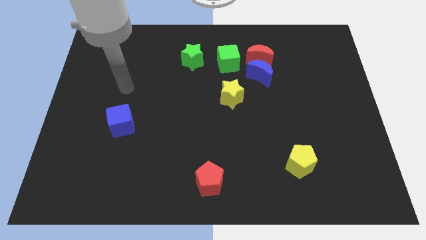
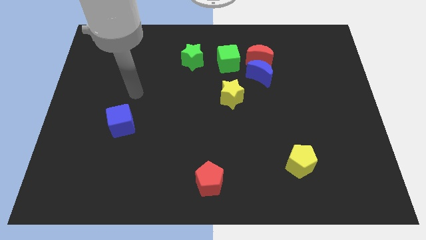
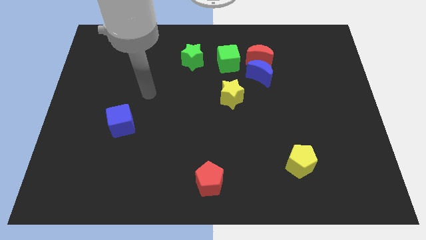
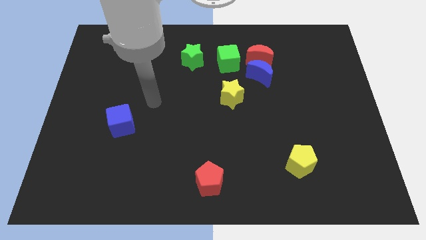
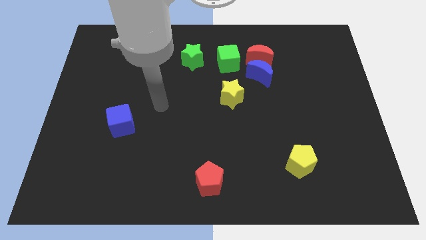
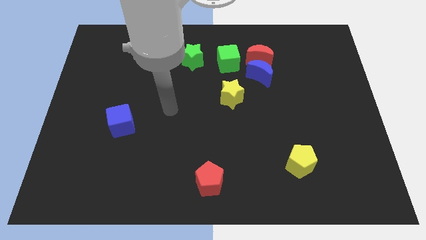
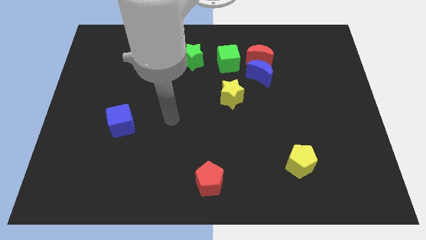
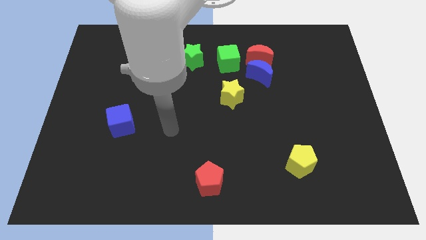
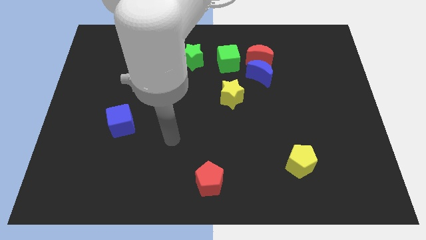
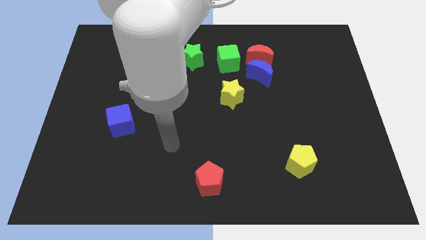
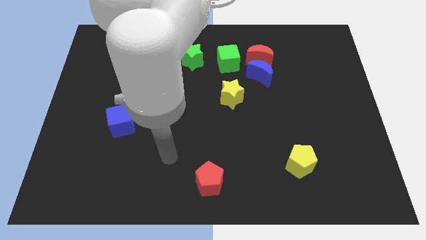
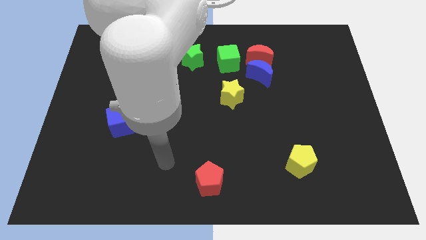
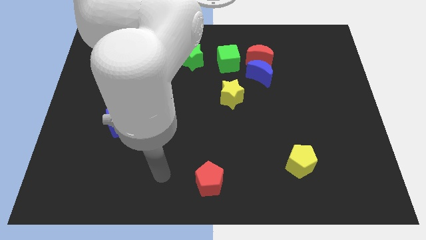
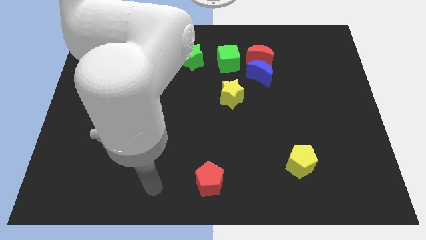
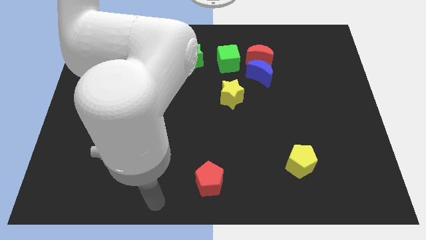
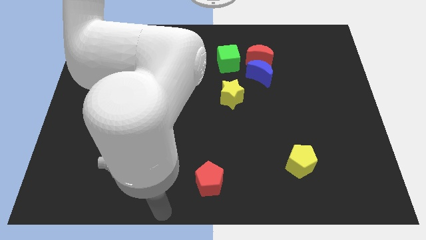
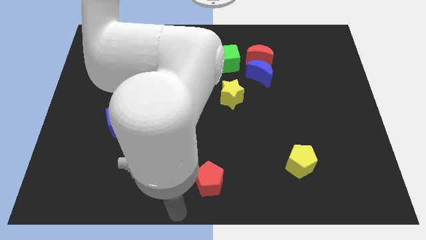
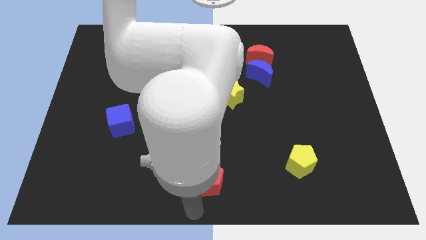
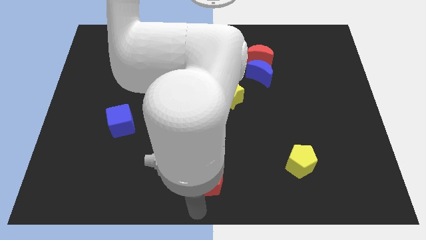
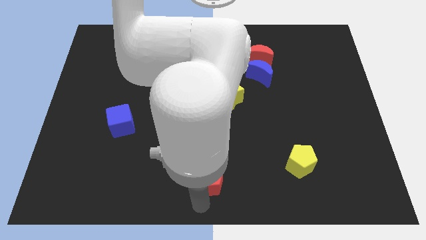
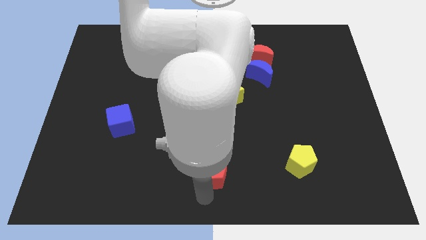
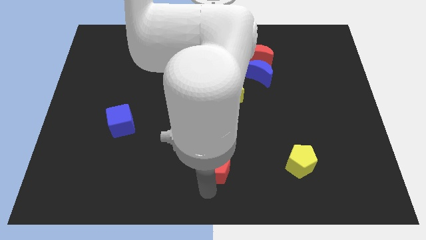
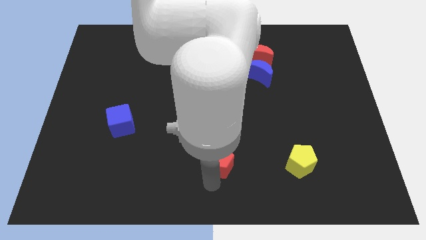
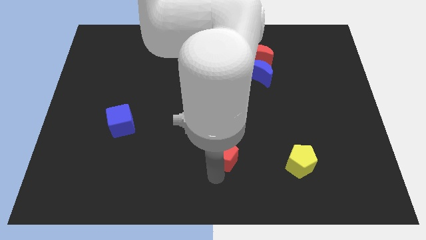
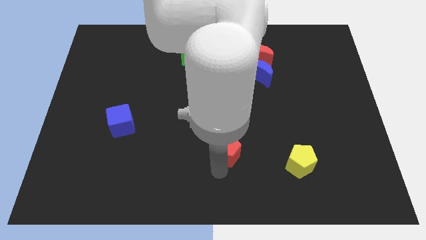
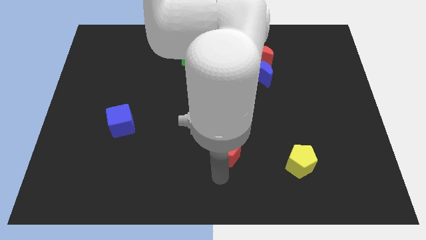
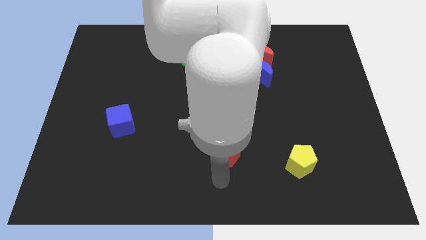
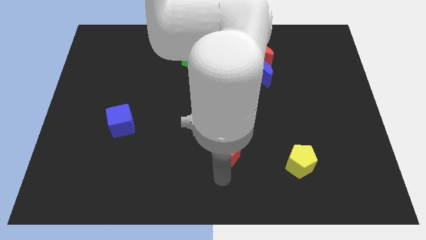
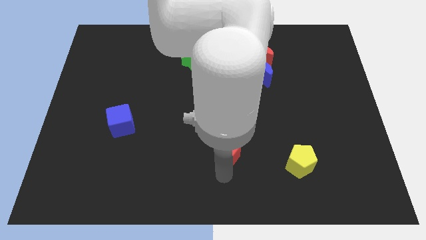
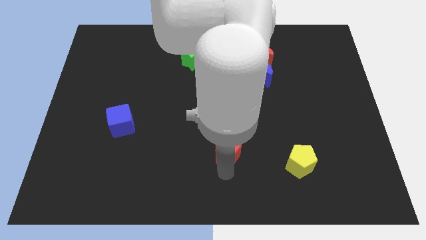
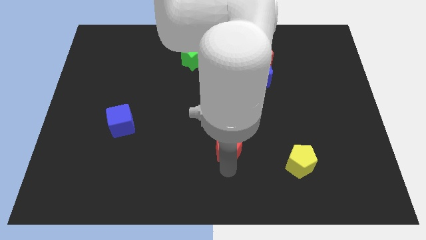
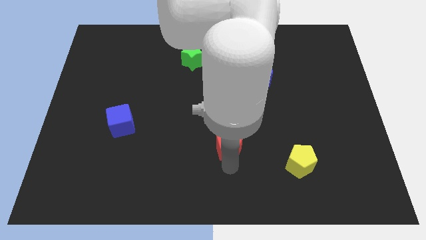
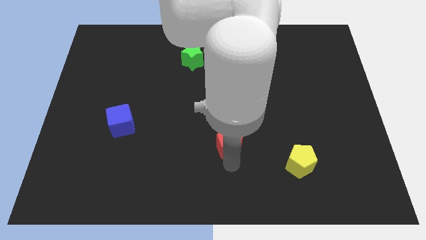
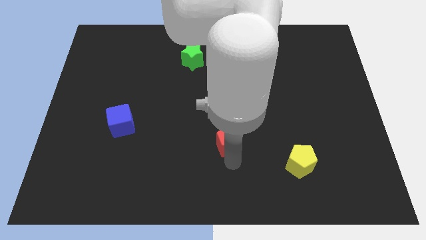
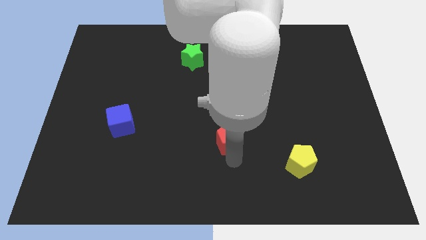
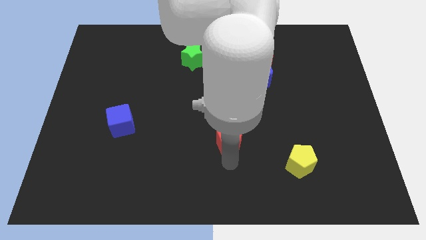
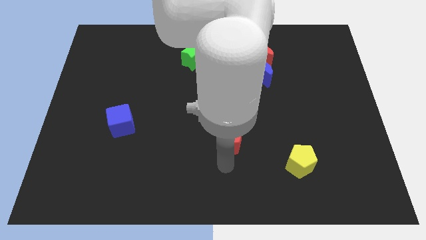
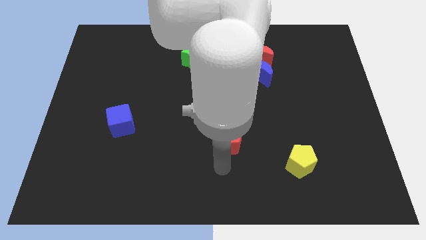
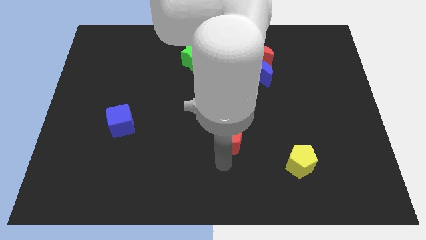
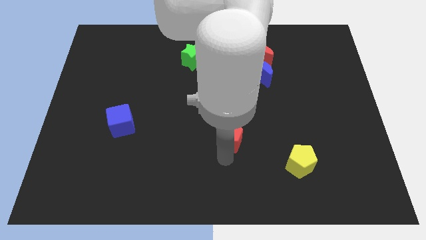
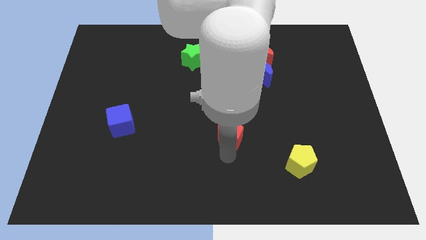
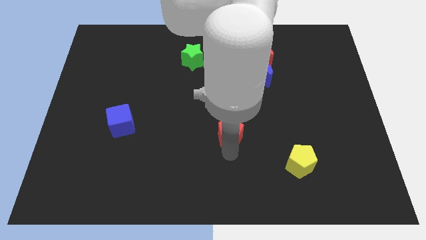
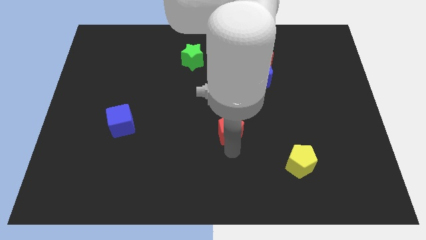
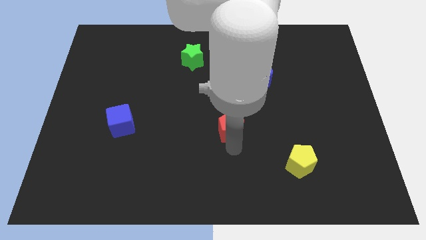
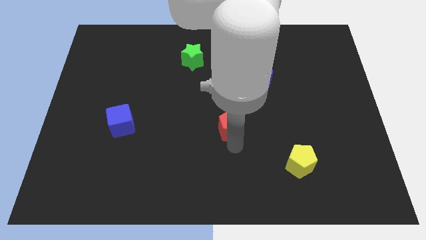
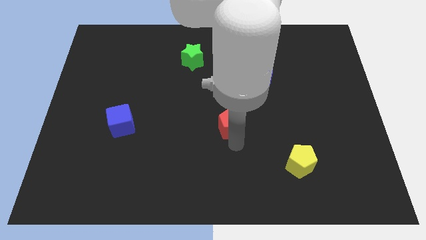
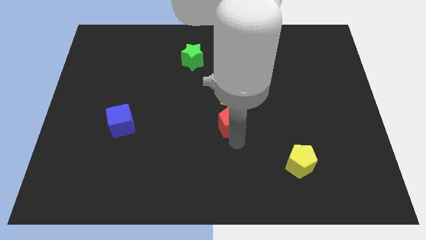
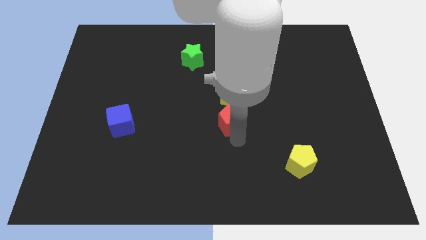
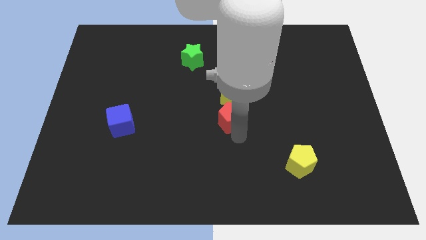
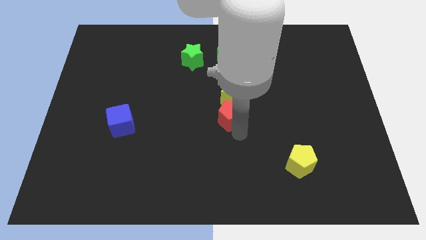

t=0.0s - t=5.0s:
move the red pentagon close to the yellow star

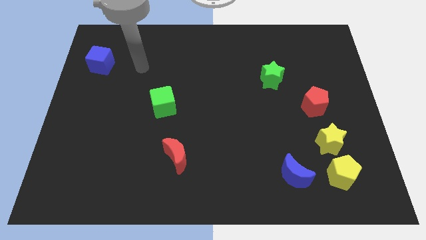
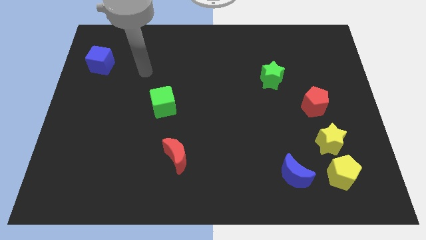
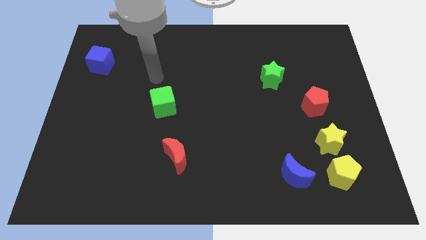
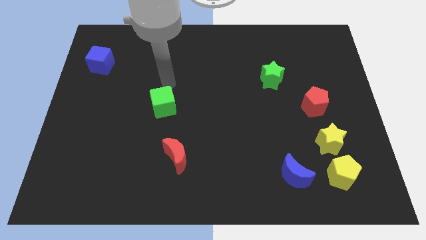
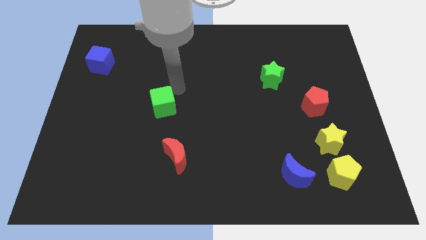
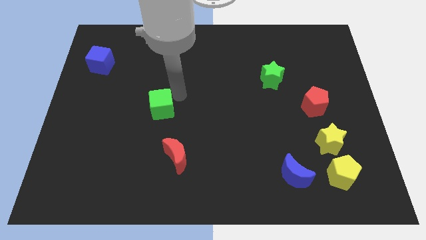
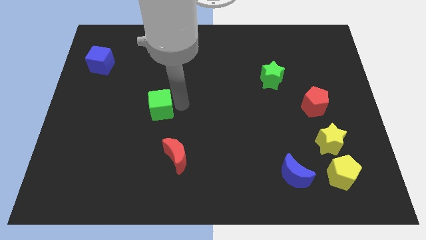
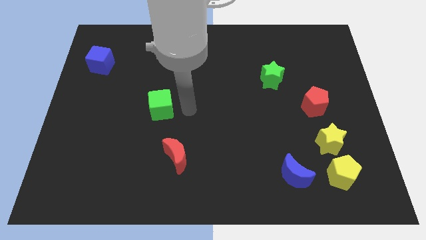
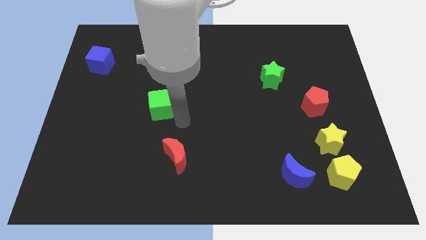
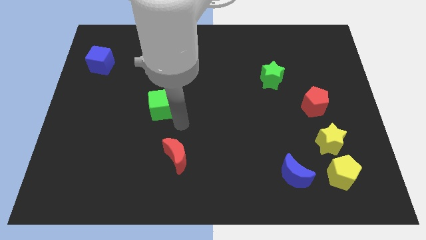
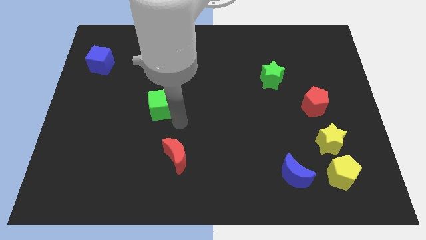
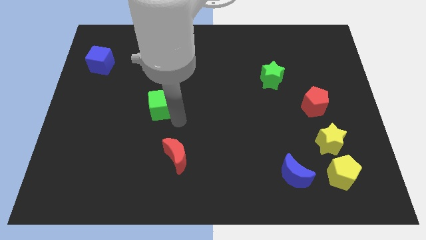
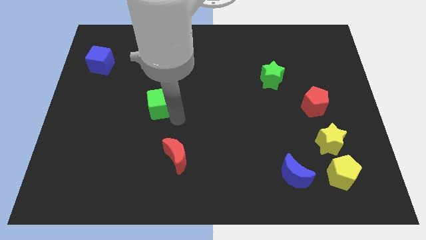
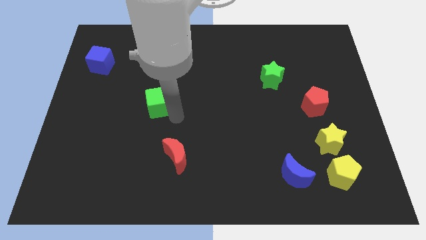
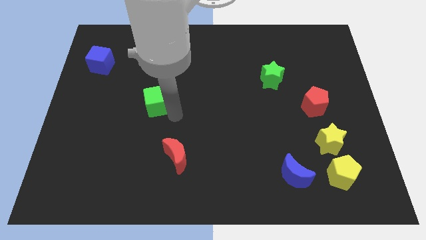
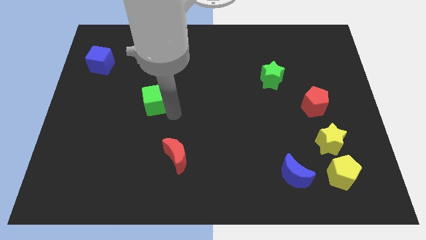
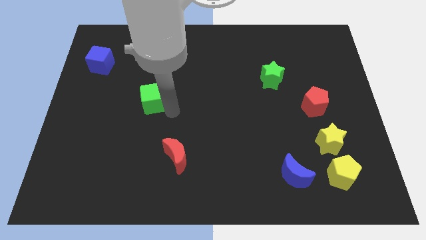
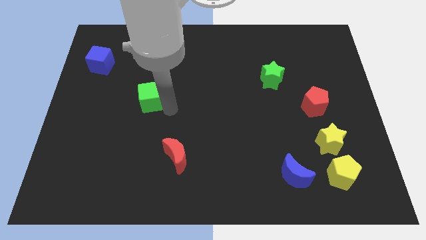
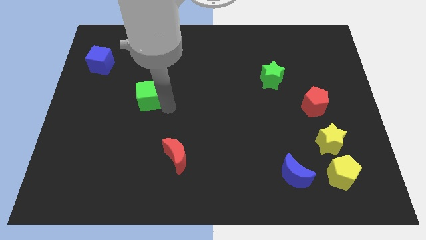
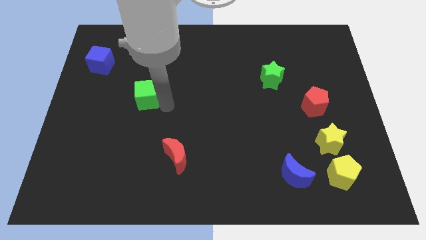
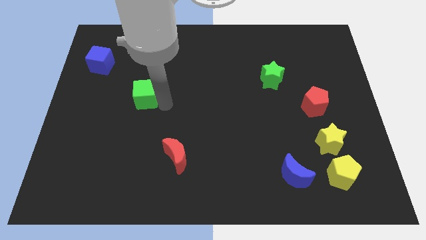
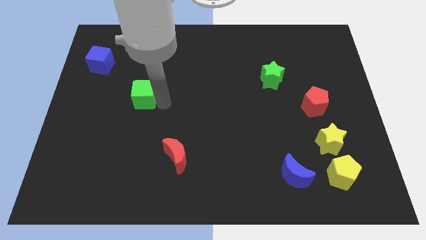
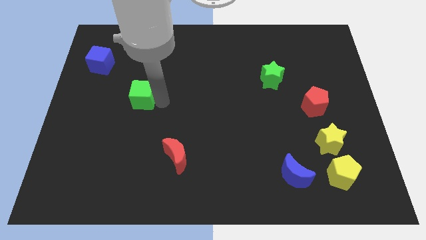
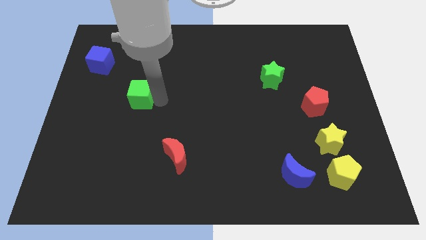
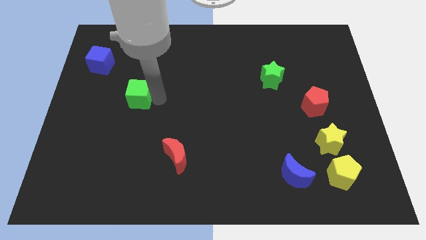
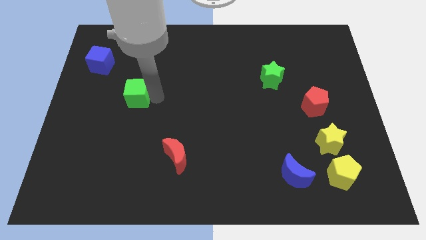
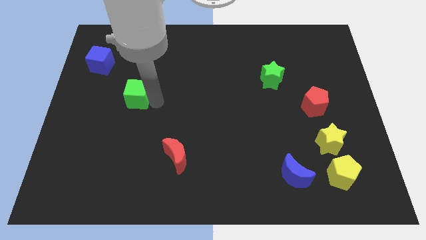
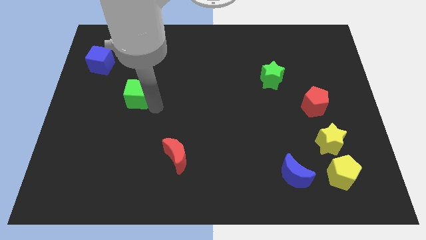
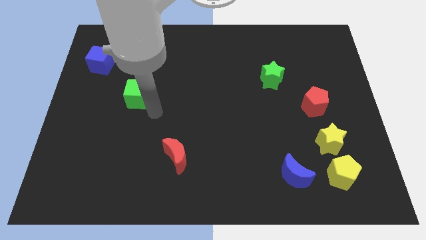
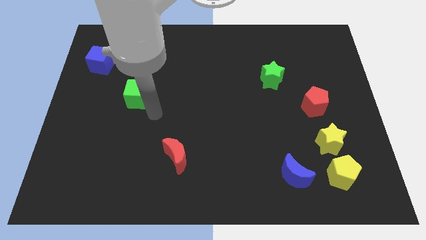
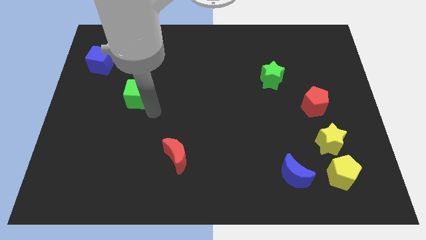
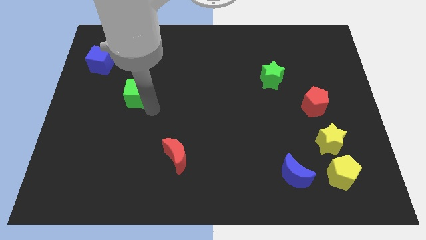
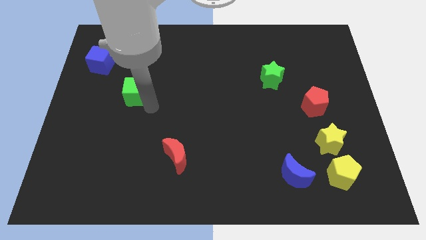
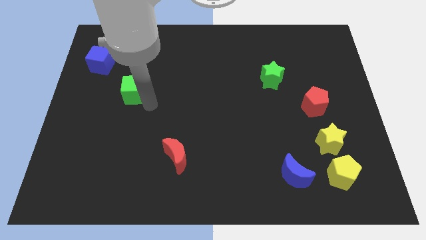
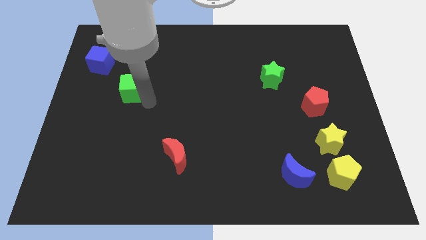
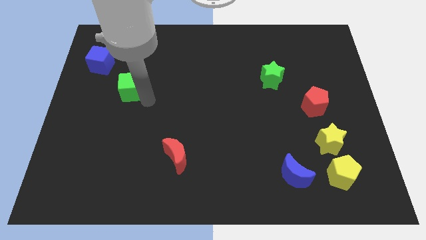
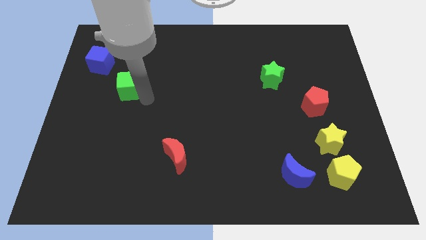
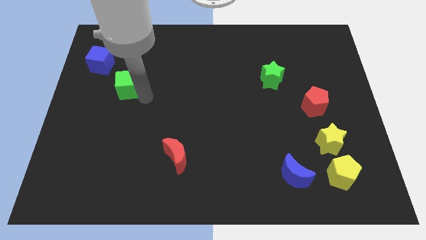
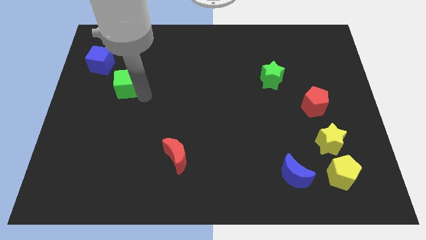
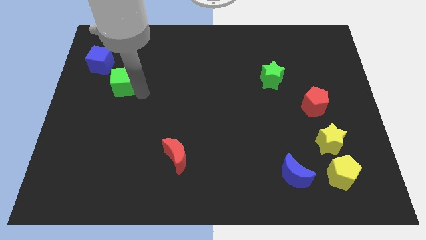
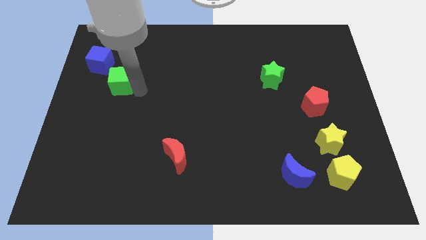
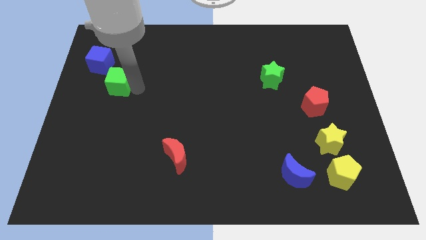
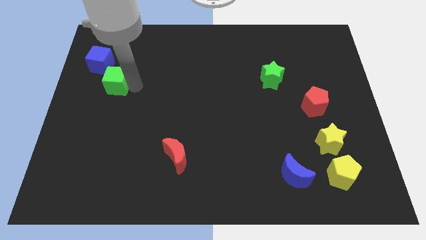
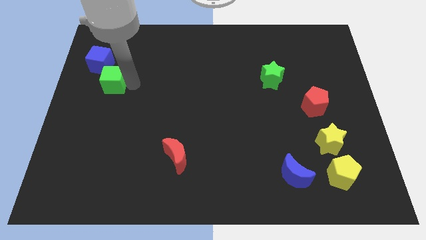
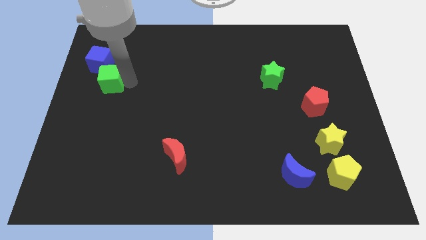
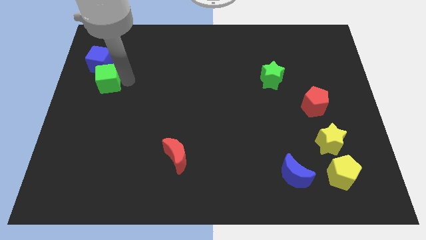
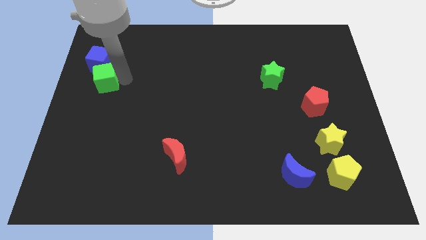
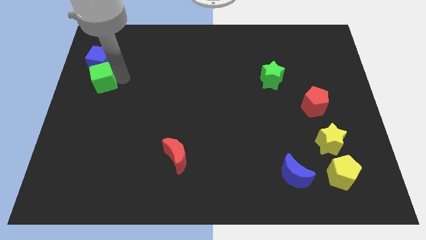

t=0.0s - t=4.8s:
put the green cube towards the blue cube
